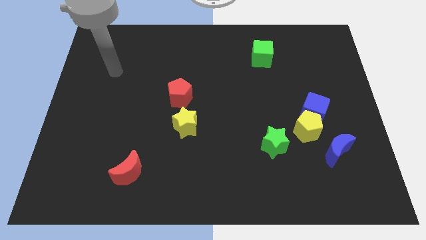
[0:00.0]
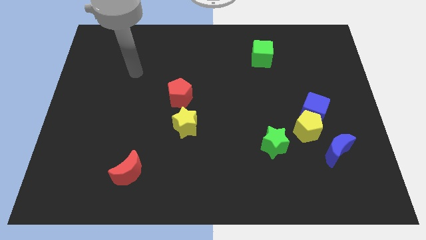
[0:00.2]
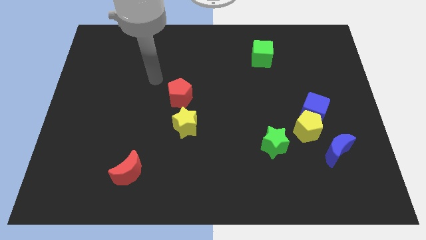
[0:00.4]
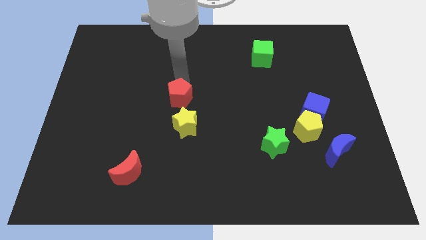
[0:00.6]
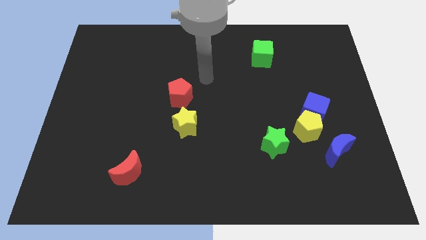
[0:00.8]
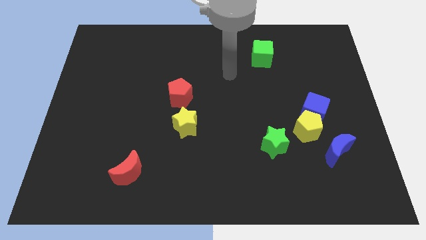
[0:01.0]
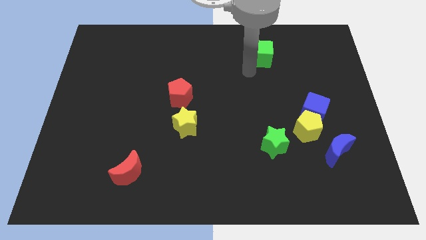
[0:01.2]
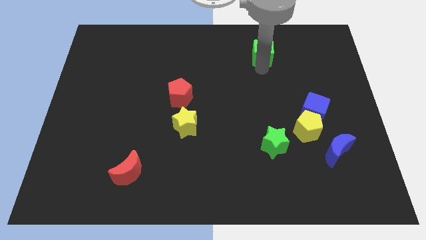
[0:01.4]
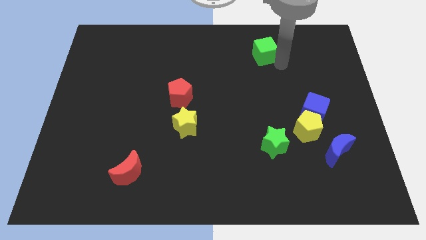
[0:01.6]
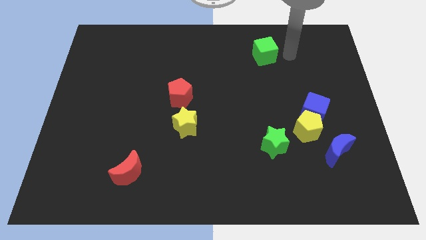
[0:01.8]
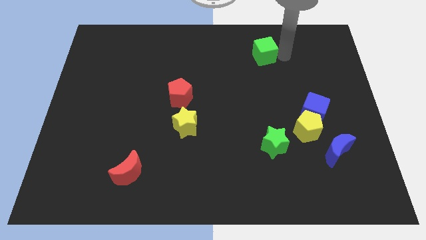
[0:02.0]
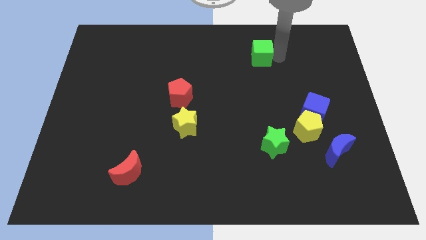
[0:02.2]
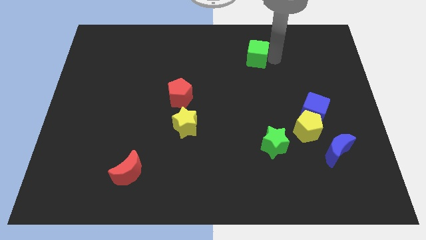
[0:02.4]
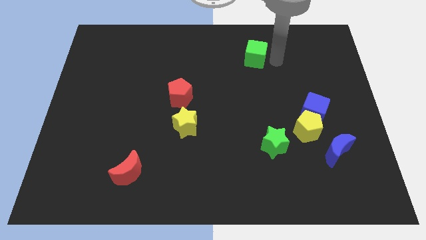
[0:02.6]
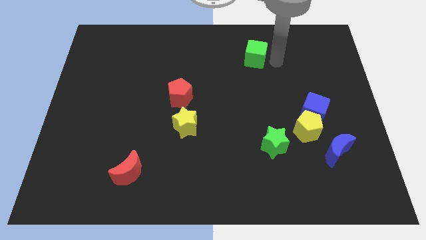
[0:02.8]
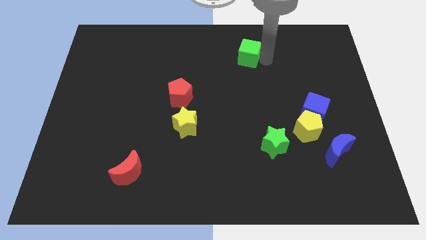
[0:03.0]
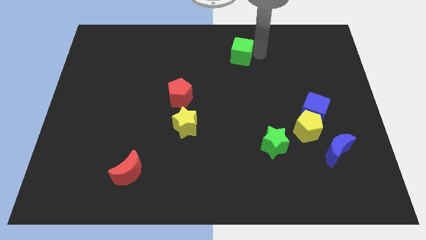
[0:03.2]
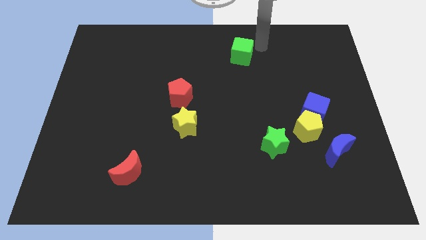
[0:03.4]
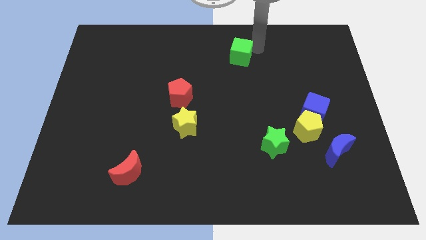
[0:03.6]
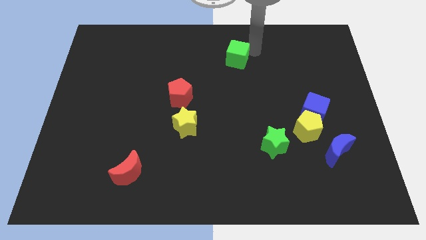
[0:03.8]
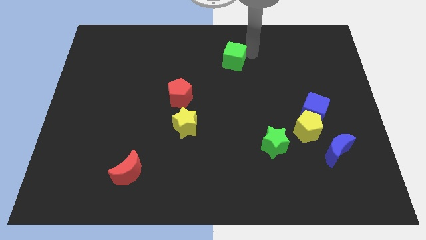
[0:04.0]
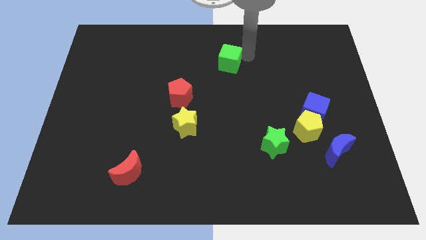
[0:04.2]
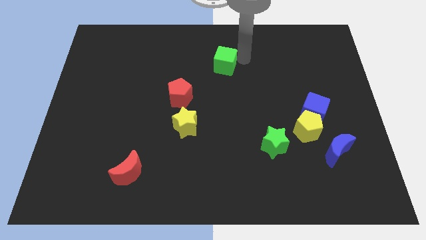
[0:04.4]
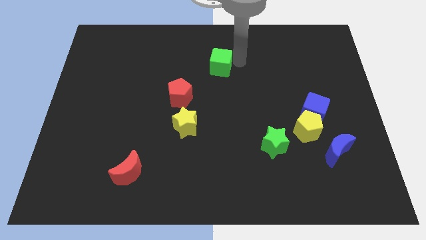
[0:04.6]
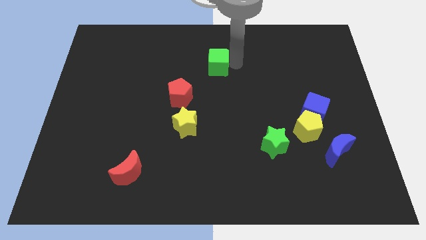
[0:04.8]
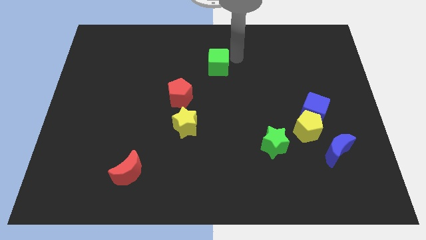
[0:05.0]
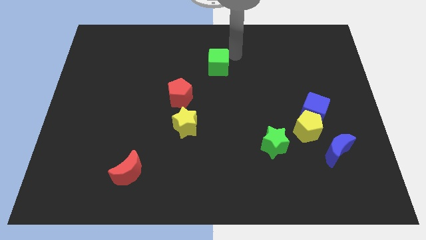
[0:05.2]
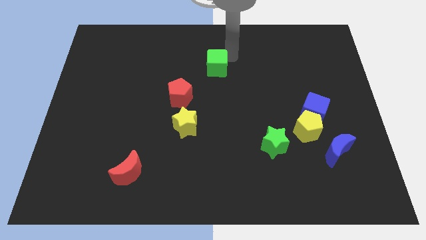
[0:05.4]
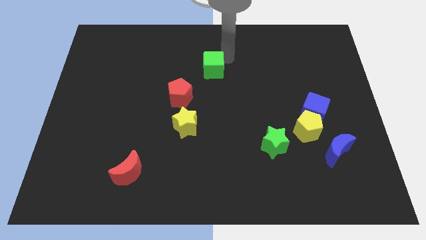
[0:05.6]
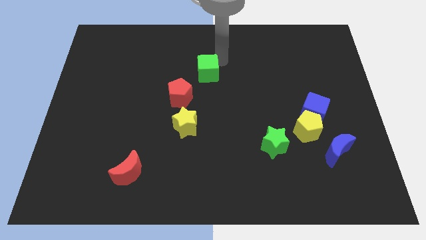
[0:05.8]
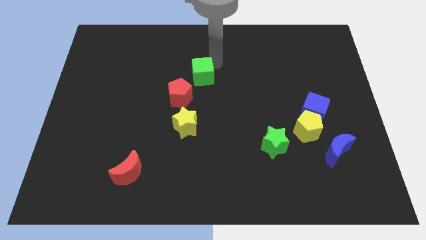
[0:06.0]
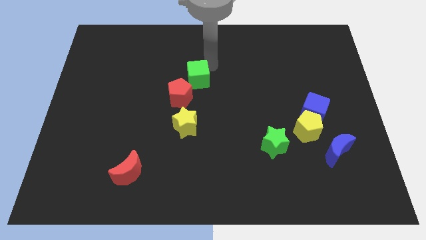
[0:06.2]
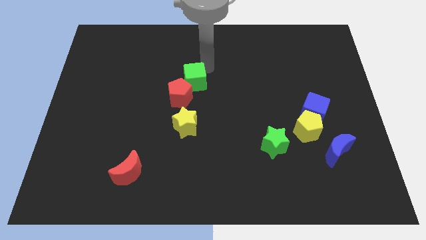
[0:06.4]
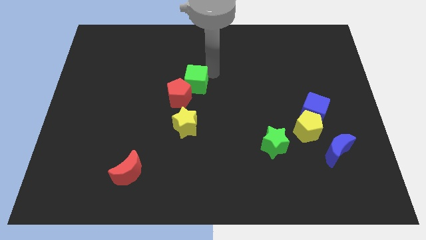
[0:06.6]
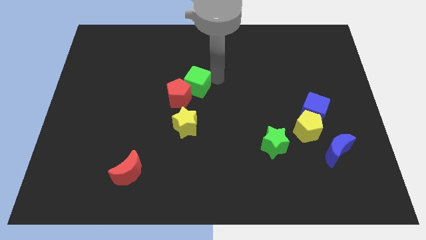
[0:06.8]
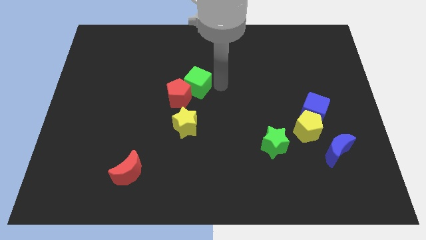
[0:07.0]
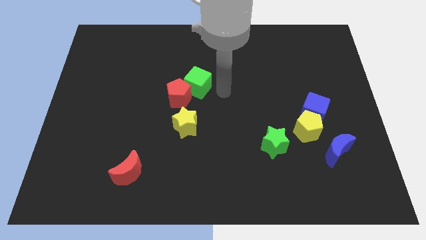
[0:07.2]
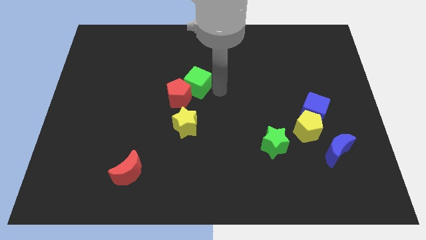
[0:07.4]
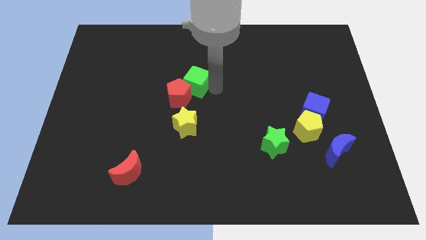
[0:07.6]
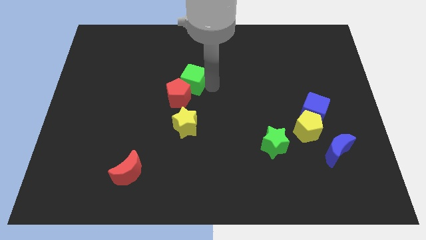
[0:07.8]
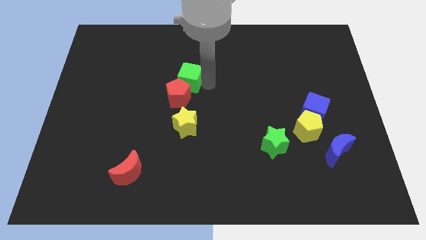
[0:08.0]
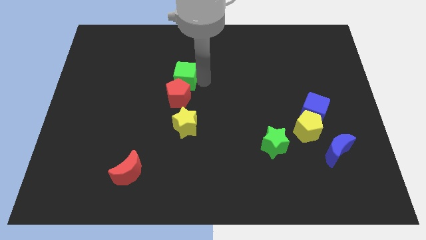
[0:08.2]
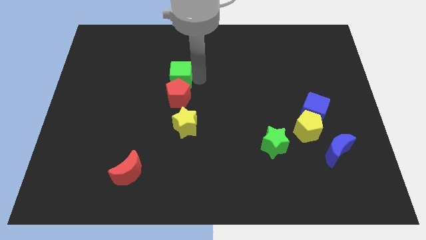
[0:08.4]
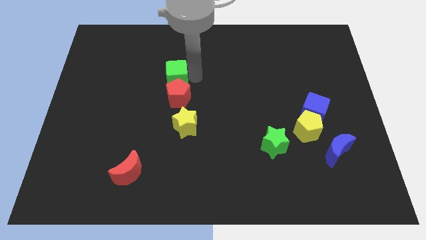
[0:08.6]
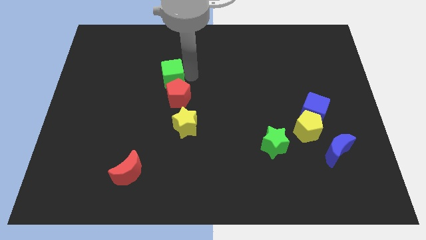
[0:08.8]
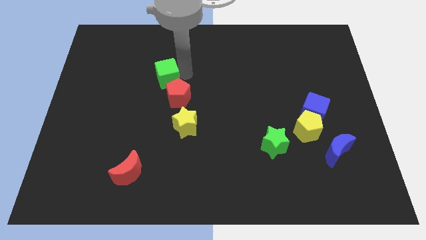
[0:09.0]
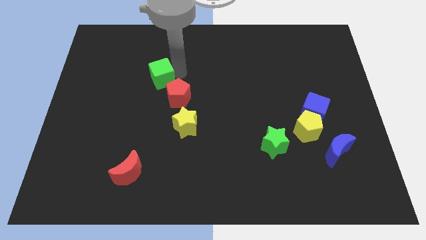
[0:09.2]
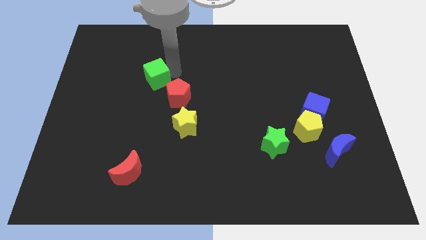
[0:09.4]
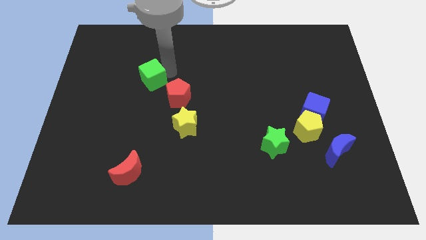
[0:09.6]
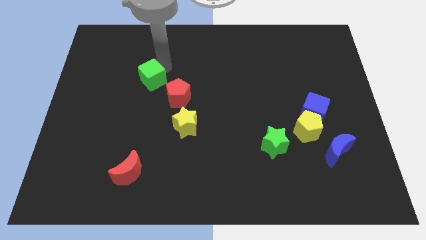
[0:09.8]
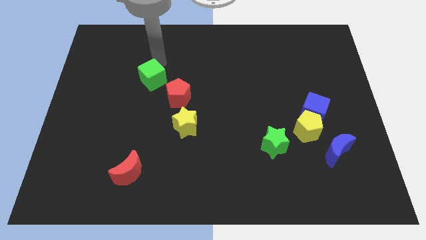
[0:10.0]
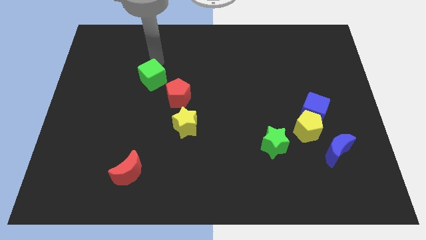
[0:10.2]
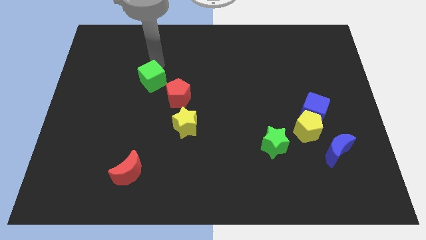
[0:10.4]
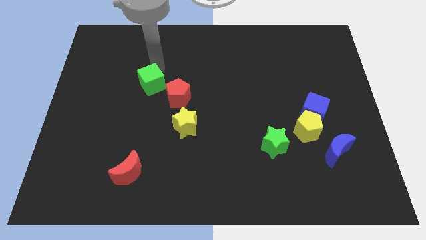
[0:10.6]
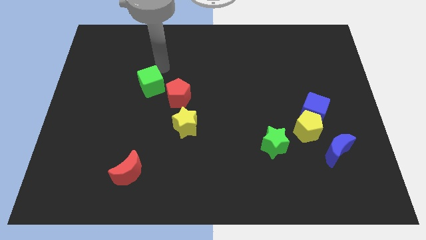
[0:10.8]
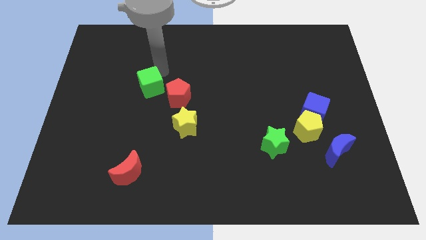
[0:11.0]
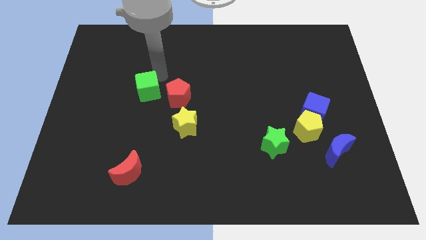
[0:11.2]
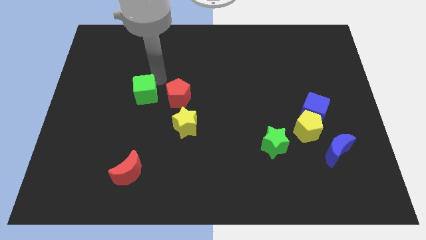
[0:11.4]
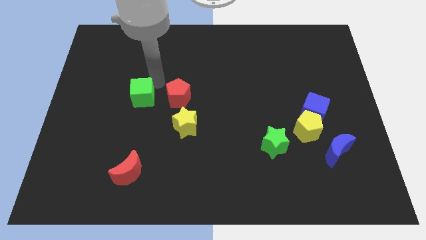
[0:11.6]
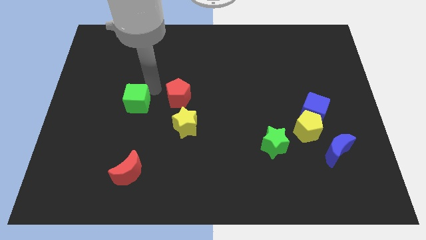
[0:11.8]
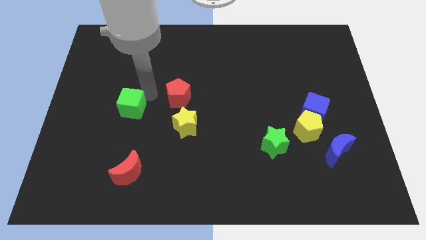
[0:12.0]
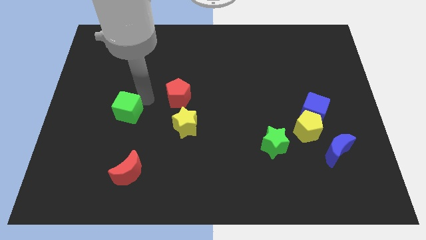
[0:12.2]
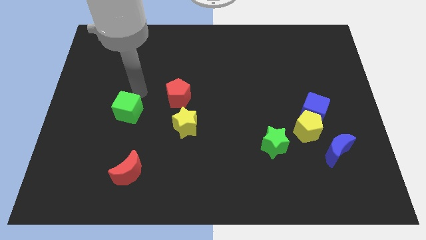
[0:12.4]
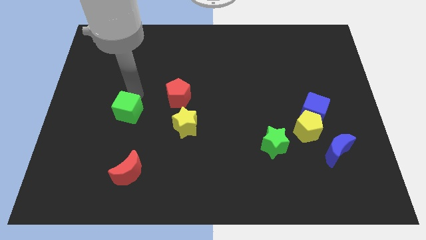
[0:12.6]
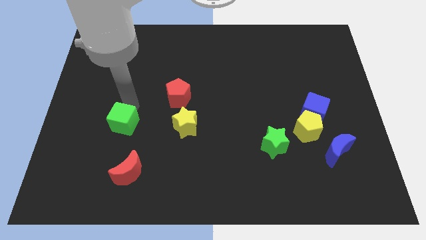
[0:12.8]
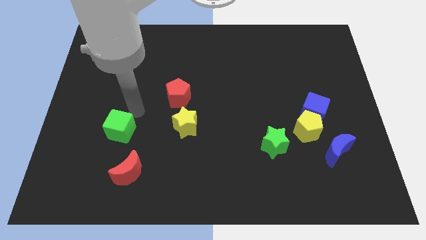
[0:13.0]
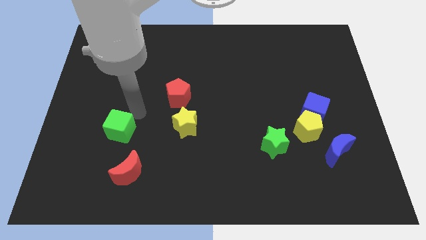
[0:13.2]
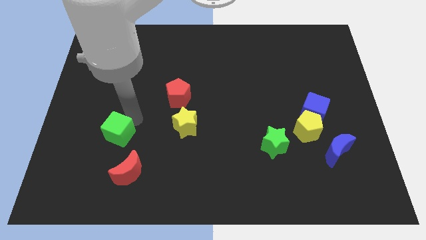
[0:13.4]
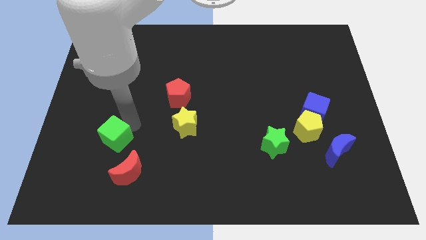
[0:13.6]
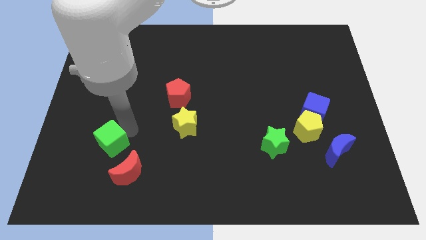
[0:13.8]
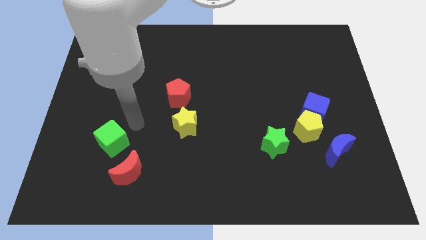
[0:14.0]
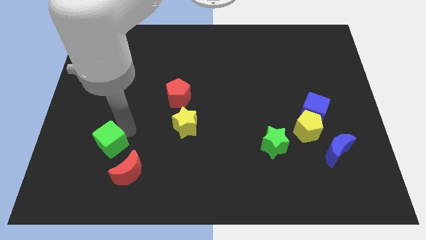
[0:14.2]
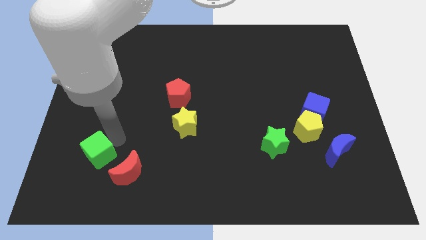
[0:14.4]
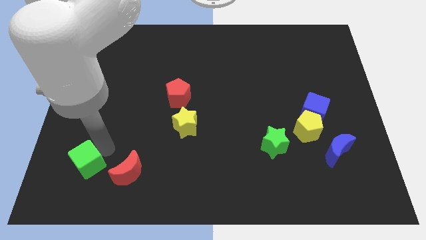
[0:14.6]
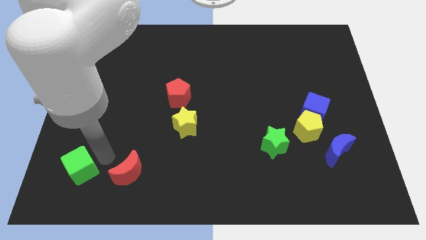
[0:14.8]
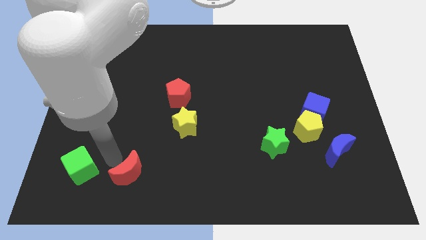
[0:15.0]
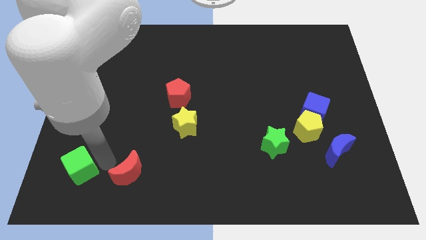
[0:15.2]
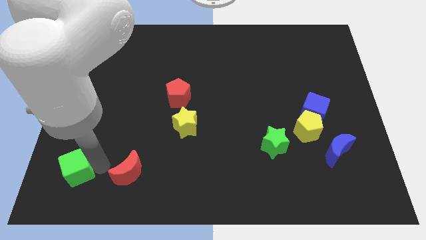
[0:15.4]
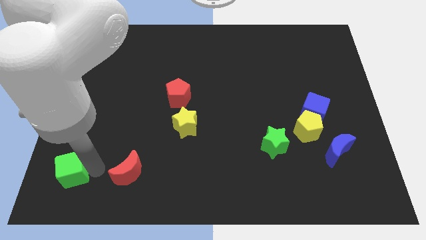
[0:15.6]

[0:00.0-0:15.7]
push the green cube to the bottom left corner
